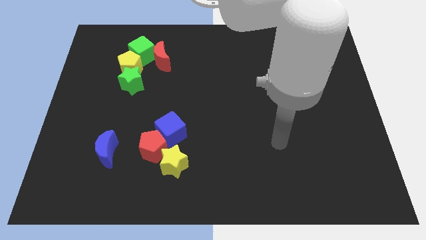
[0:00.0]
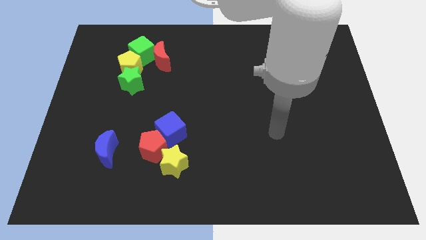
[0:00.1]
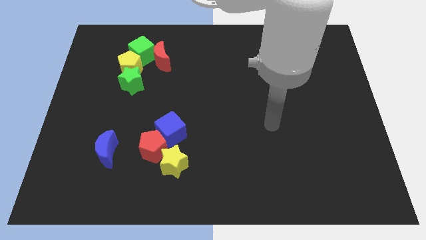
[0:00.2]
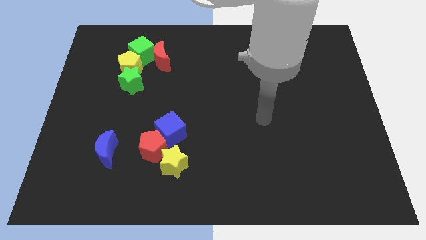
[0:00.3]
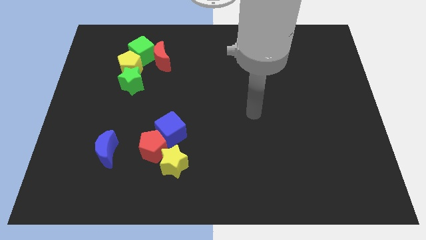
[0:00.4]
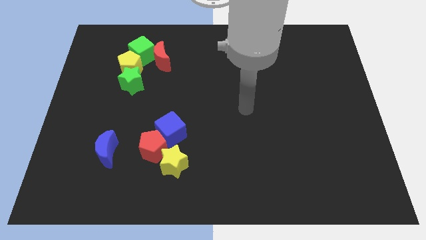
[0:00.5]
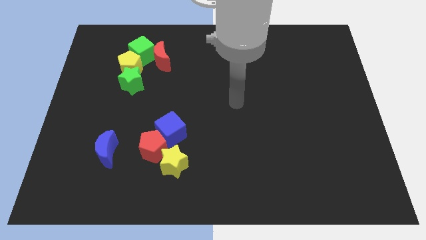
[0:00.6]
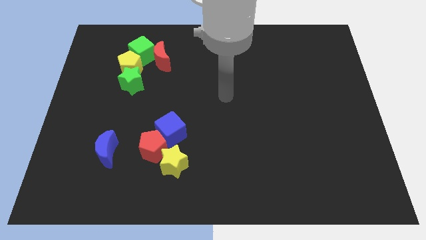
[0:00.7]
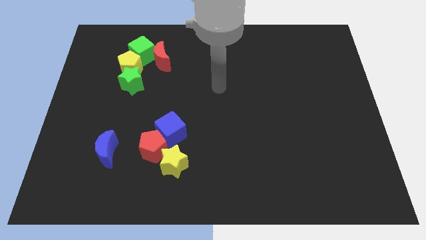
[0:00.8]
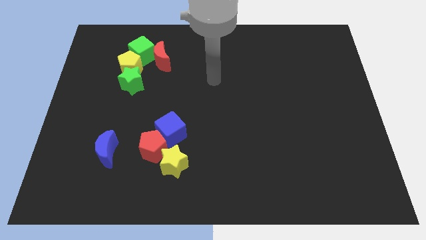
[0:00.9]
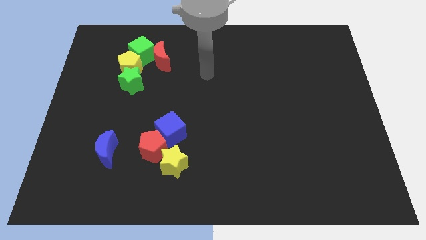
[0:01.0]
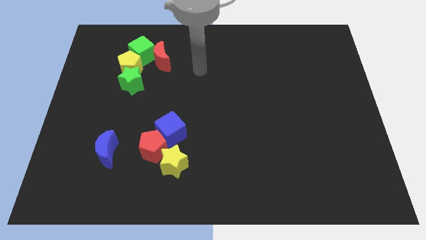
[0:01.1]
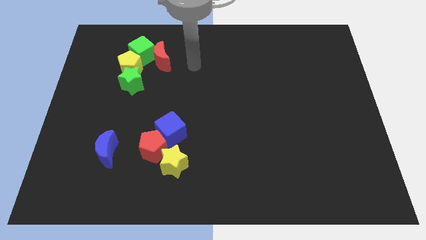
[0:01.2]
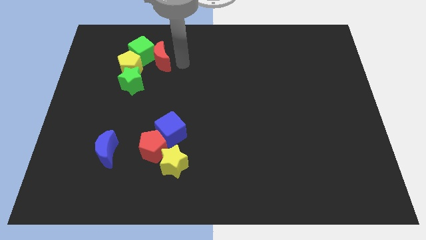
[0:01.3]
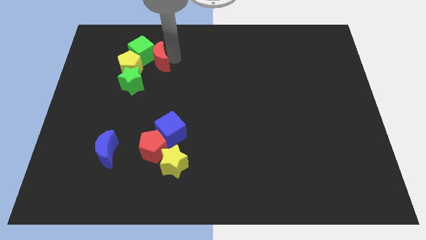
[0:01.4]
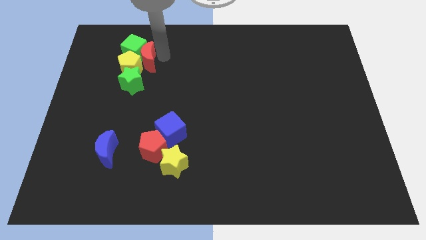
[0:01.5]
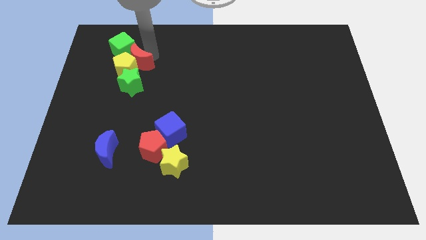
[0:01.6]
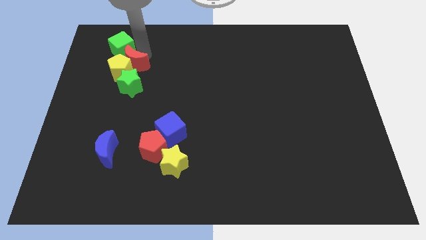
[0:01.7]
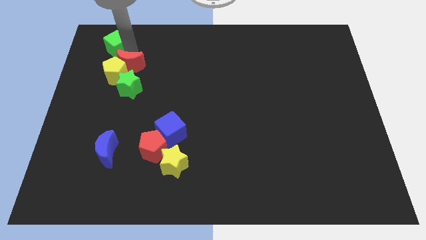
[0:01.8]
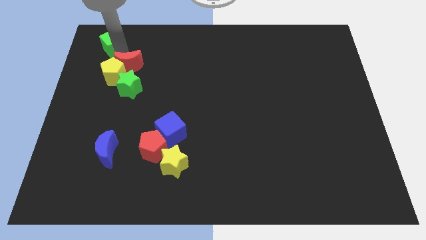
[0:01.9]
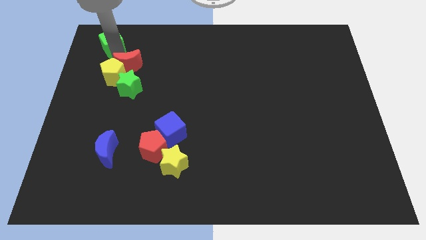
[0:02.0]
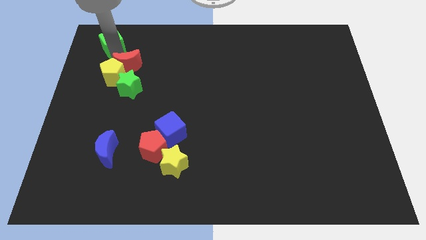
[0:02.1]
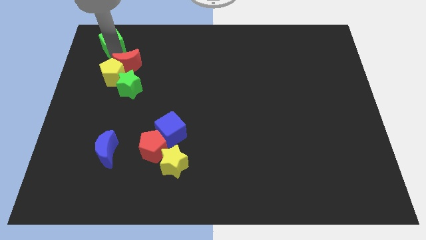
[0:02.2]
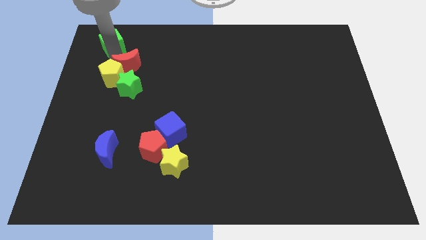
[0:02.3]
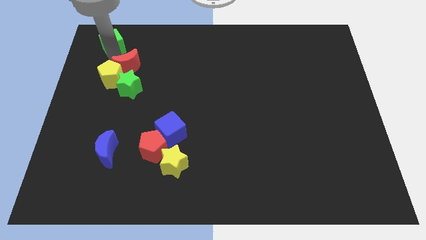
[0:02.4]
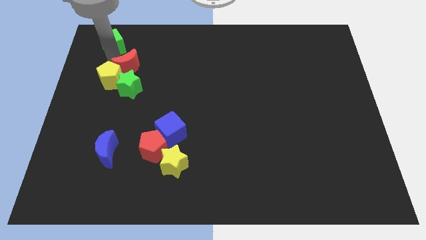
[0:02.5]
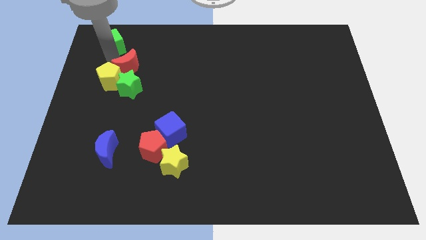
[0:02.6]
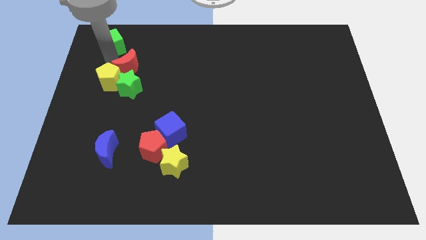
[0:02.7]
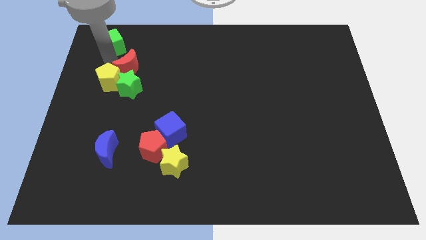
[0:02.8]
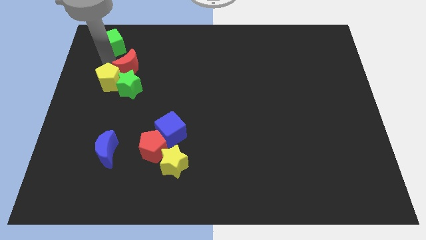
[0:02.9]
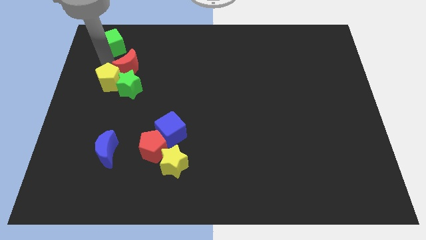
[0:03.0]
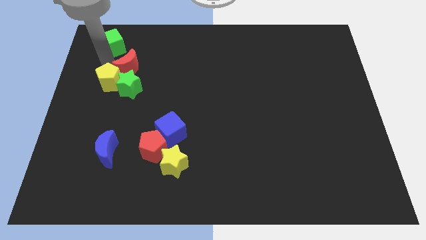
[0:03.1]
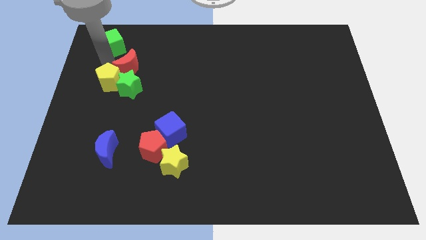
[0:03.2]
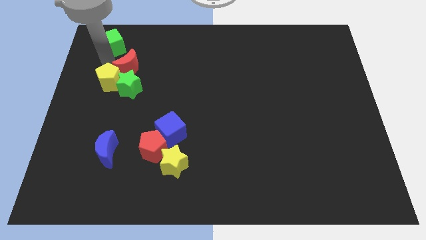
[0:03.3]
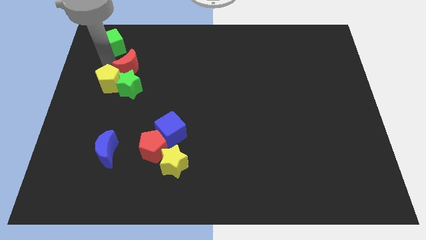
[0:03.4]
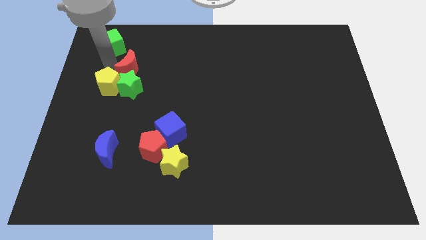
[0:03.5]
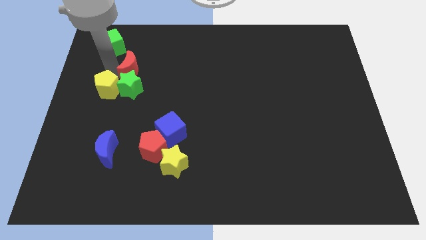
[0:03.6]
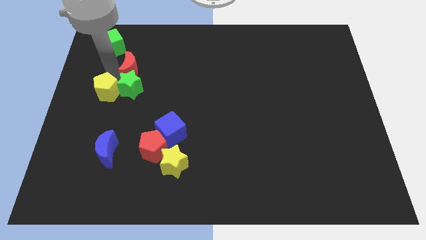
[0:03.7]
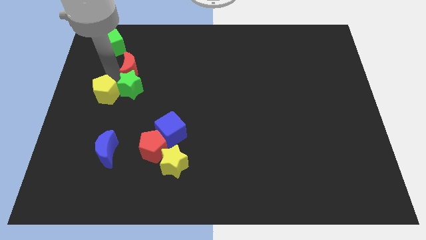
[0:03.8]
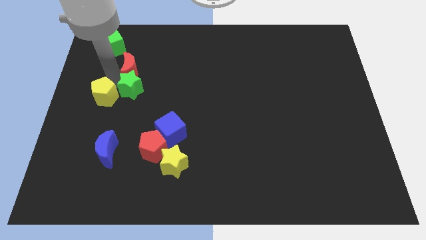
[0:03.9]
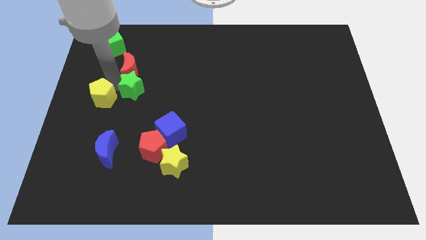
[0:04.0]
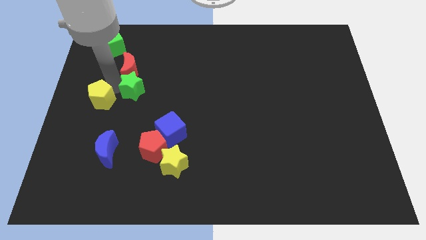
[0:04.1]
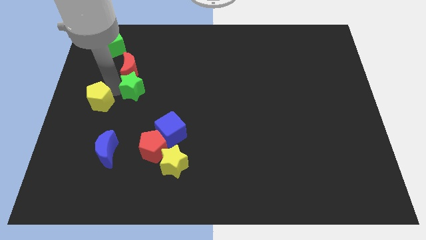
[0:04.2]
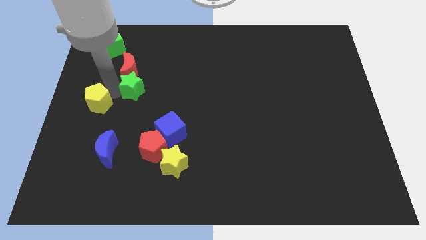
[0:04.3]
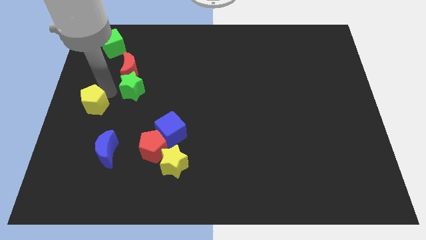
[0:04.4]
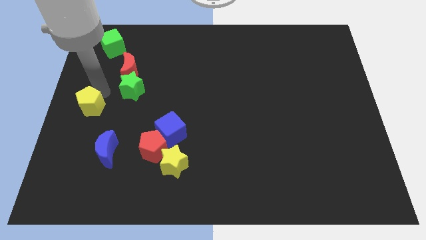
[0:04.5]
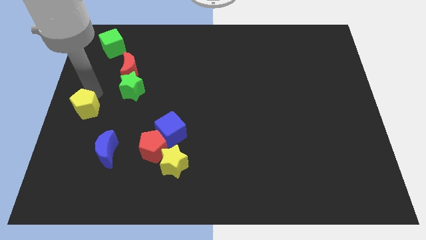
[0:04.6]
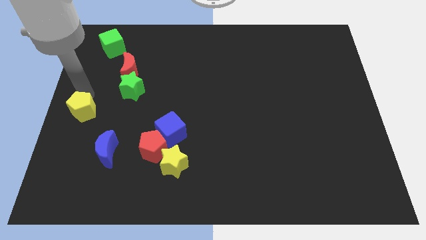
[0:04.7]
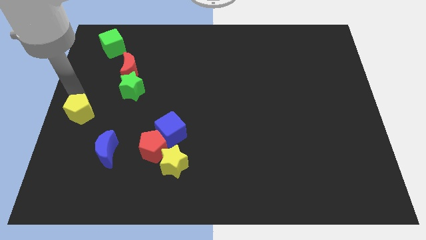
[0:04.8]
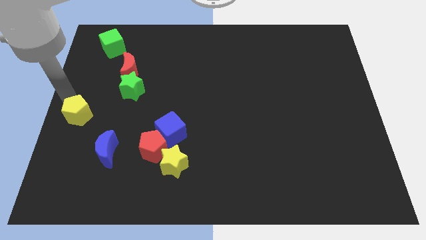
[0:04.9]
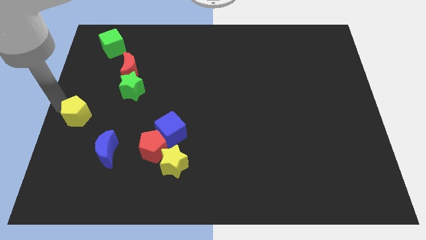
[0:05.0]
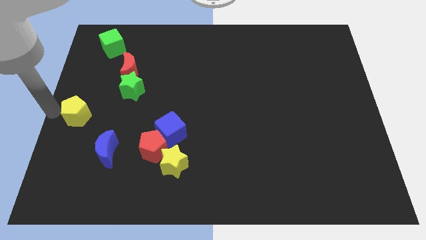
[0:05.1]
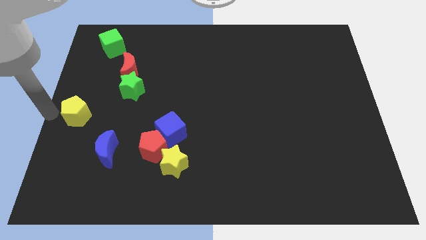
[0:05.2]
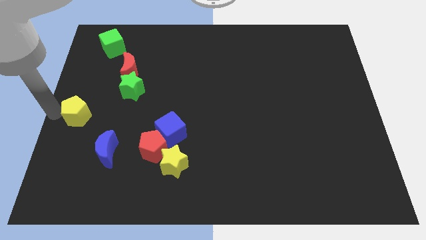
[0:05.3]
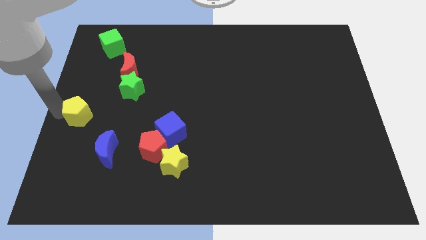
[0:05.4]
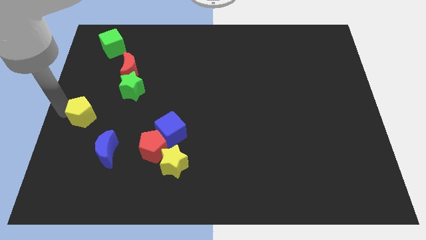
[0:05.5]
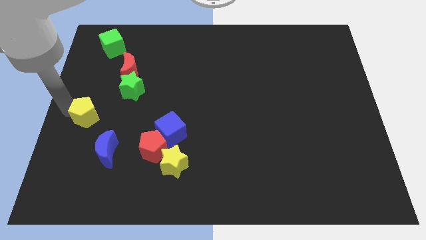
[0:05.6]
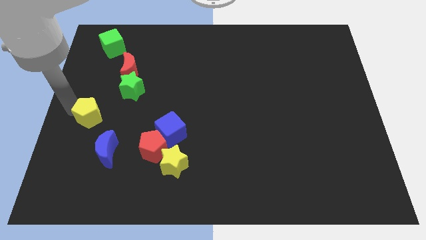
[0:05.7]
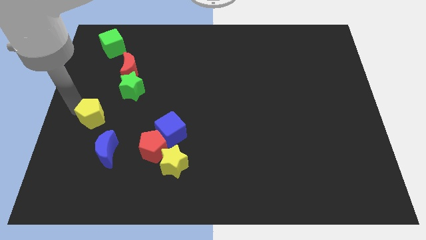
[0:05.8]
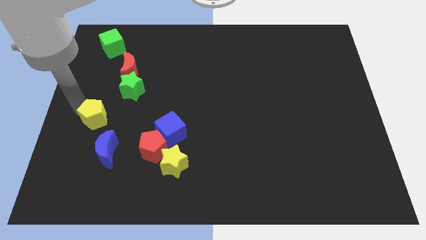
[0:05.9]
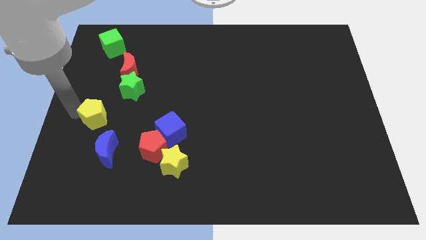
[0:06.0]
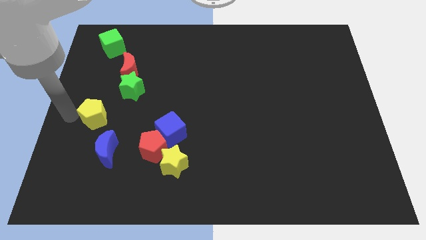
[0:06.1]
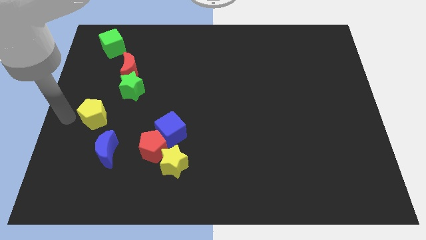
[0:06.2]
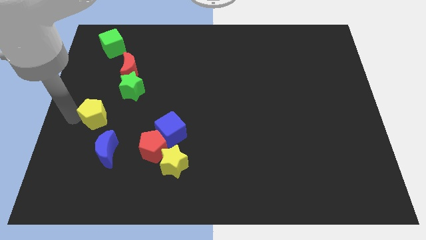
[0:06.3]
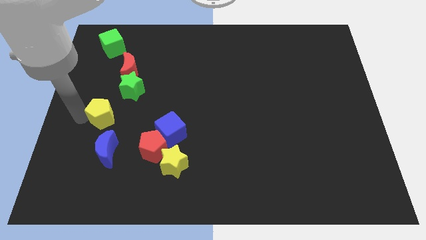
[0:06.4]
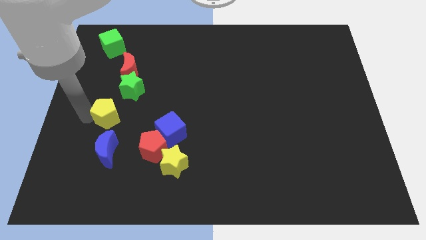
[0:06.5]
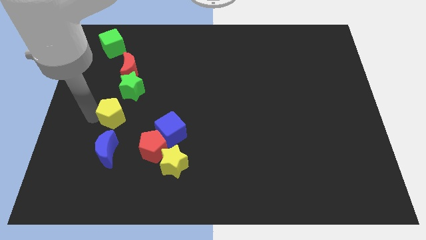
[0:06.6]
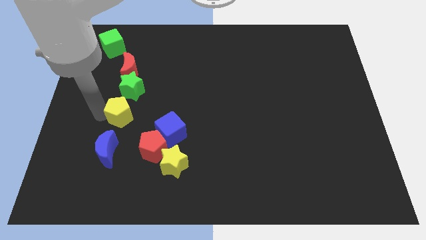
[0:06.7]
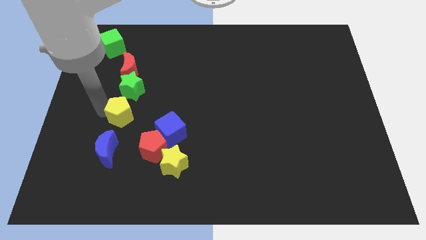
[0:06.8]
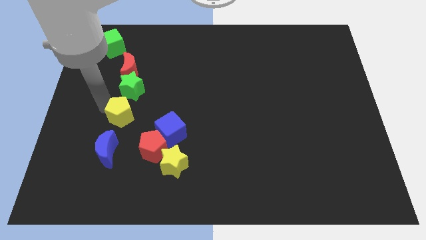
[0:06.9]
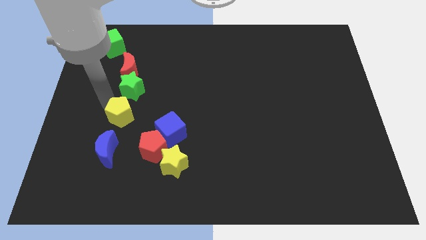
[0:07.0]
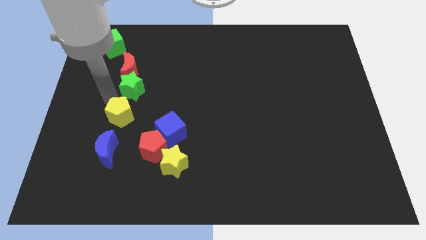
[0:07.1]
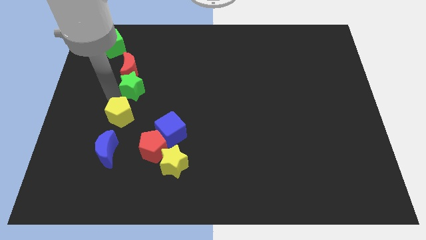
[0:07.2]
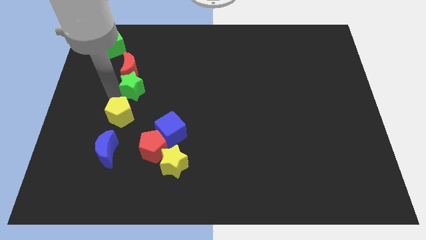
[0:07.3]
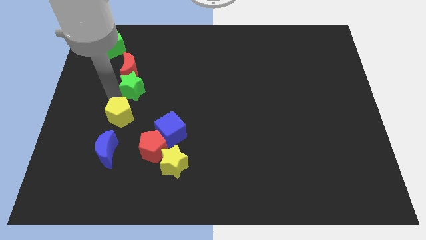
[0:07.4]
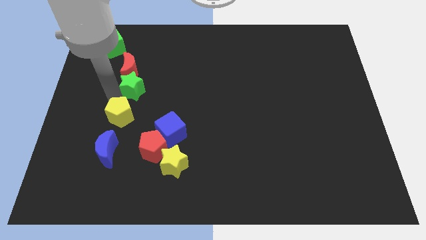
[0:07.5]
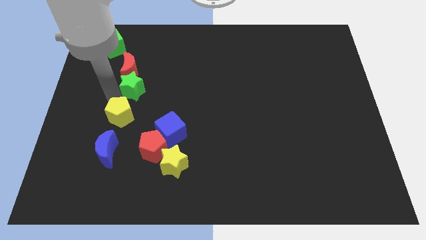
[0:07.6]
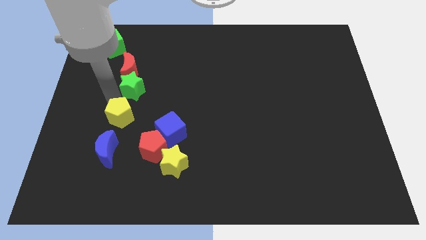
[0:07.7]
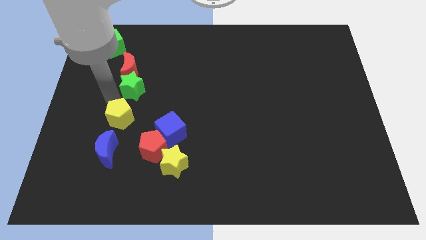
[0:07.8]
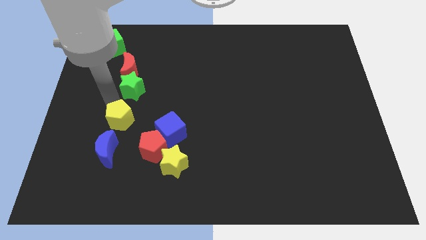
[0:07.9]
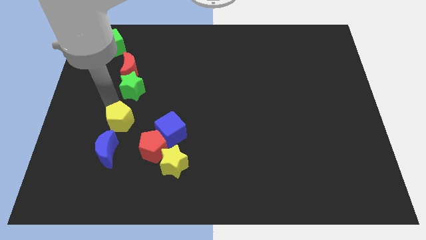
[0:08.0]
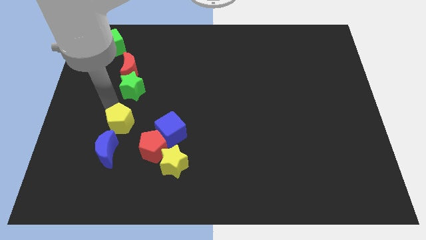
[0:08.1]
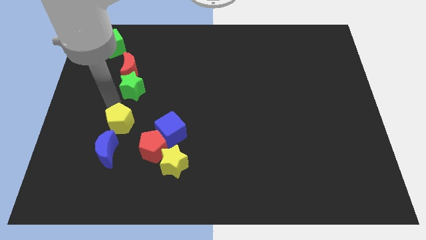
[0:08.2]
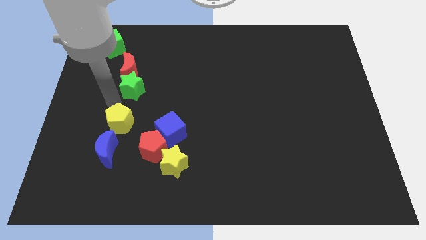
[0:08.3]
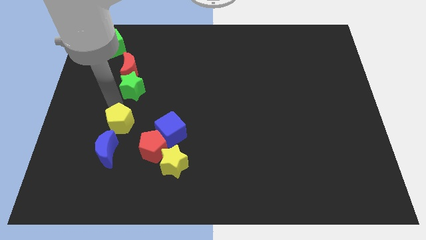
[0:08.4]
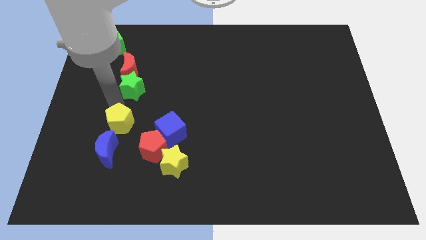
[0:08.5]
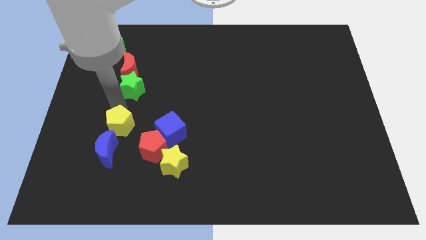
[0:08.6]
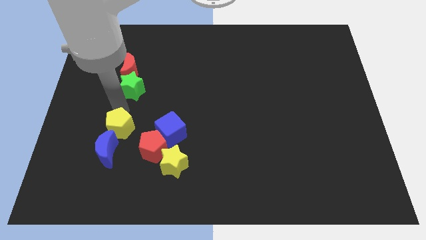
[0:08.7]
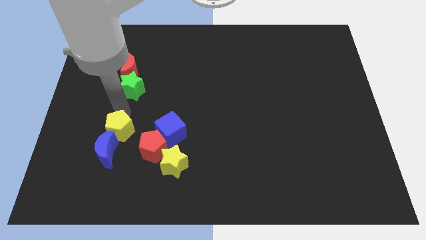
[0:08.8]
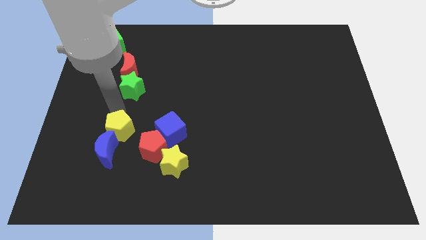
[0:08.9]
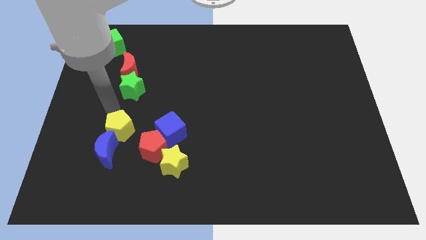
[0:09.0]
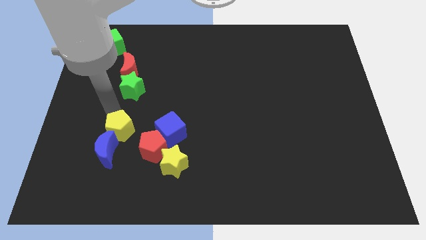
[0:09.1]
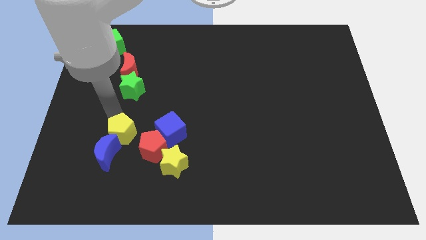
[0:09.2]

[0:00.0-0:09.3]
slide the yellow pentagon down
